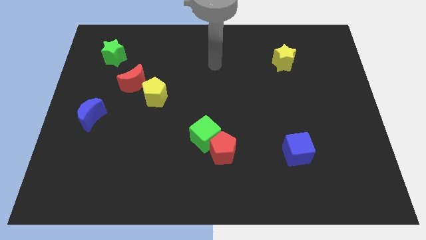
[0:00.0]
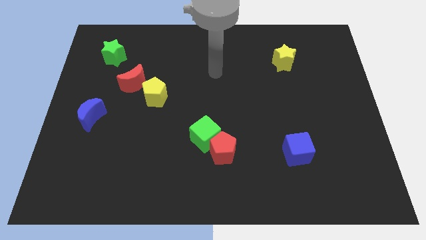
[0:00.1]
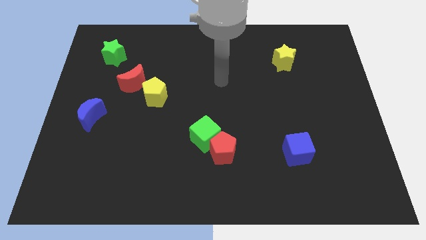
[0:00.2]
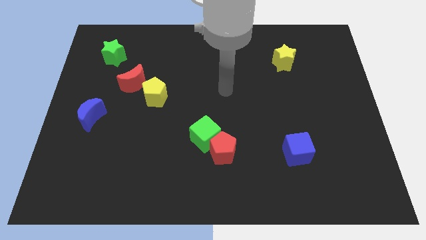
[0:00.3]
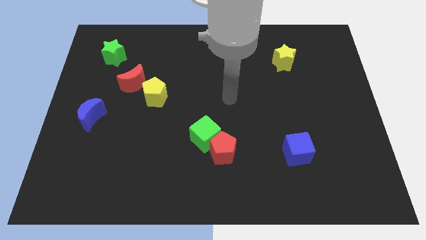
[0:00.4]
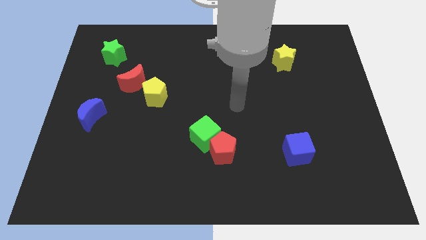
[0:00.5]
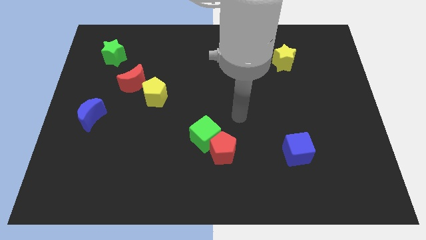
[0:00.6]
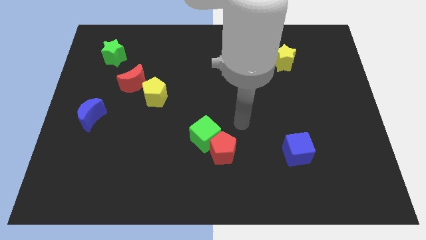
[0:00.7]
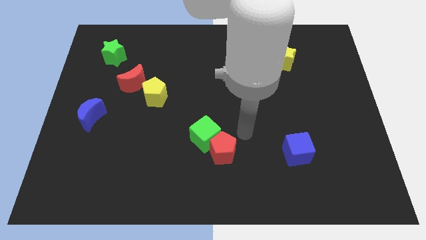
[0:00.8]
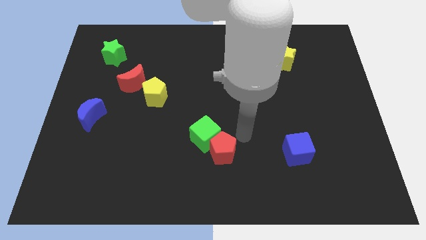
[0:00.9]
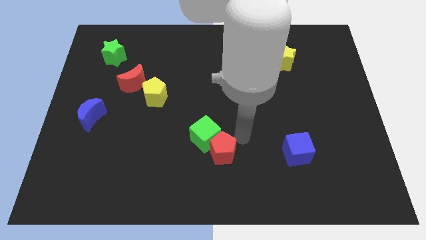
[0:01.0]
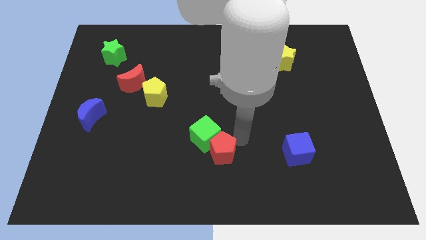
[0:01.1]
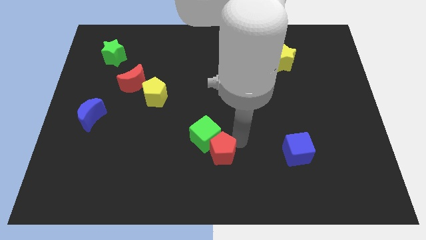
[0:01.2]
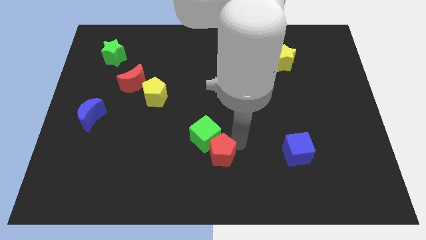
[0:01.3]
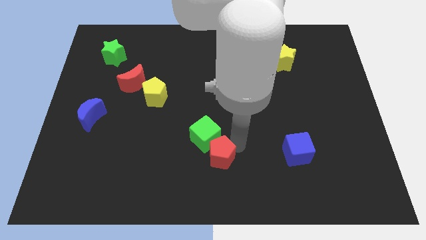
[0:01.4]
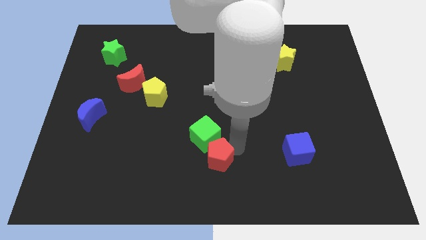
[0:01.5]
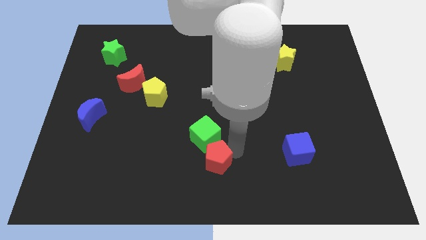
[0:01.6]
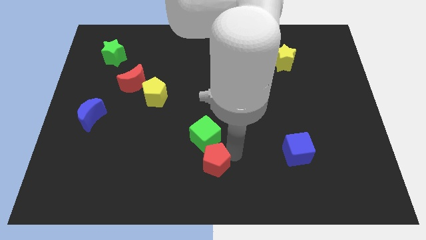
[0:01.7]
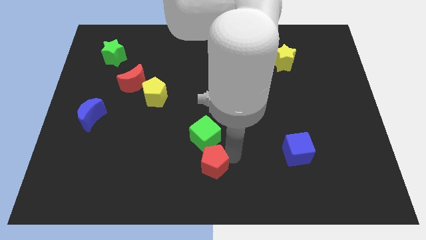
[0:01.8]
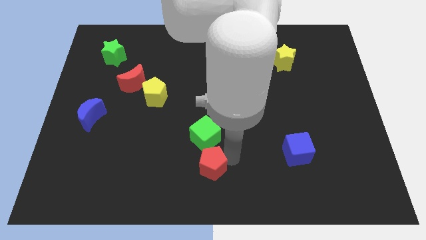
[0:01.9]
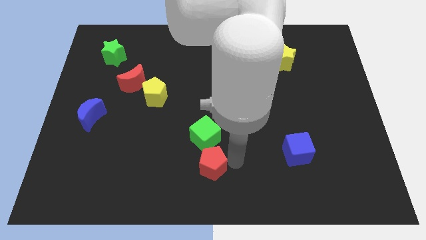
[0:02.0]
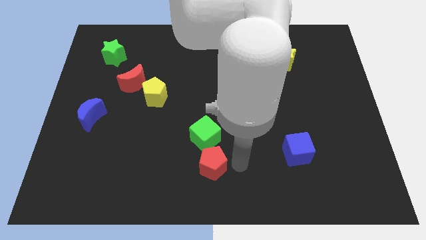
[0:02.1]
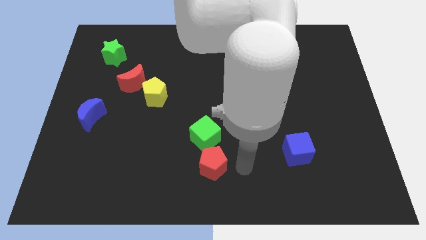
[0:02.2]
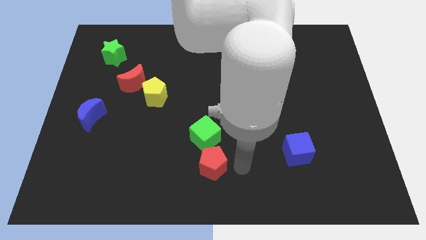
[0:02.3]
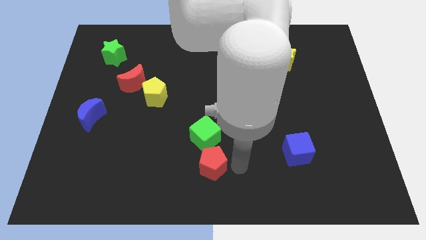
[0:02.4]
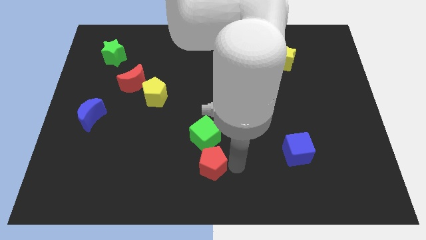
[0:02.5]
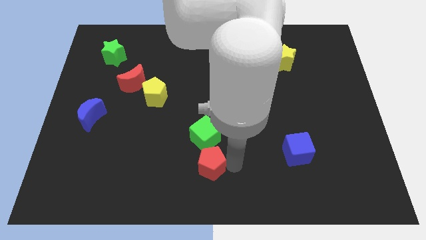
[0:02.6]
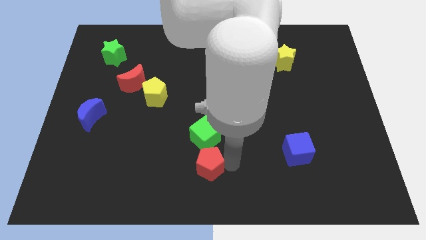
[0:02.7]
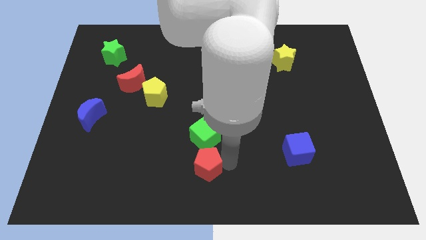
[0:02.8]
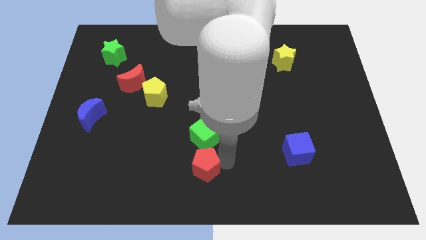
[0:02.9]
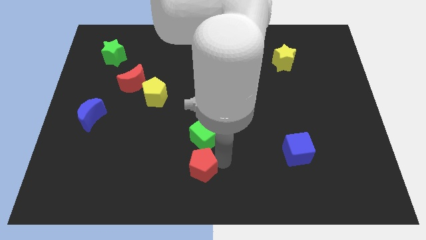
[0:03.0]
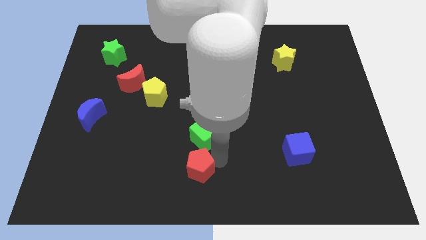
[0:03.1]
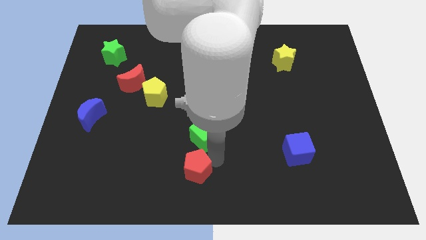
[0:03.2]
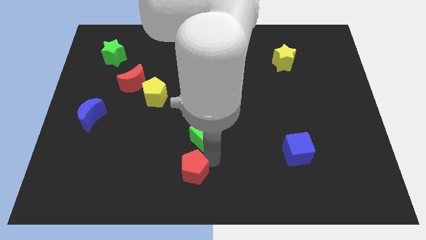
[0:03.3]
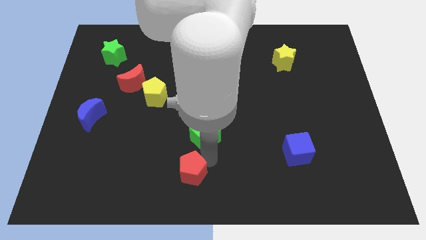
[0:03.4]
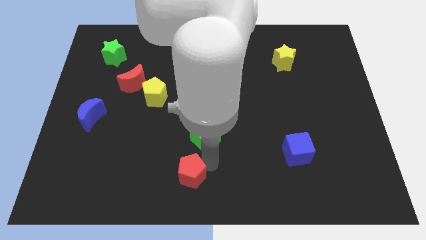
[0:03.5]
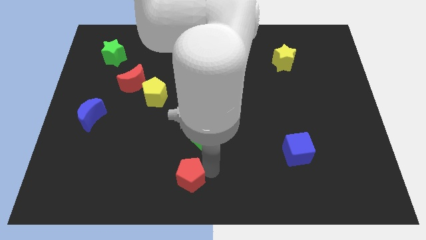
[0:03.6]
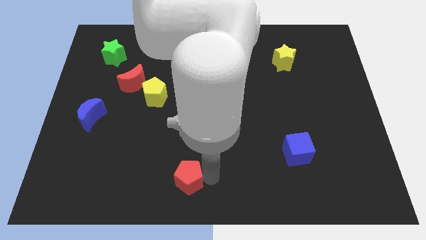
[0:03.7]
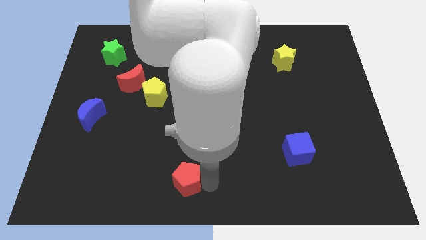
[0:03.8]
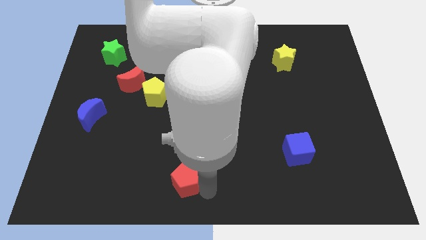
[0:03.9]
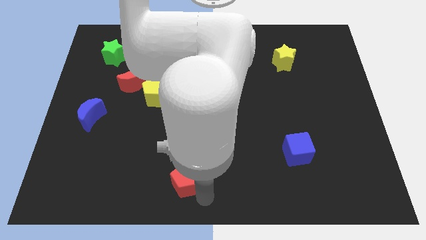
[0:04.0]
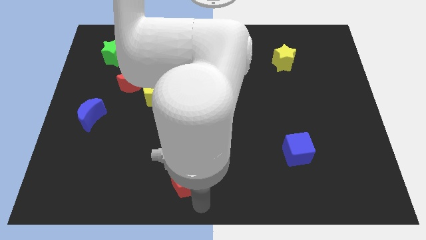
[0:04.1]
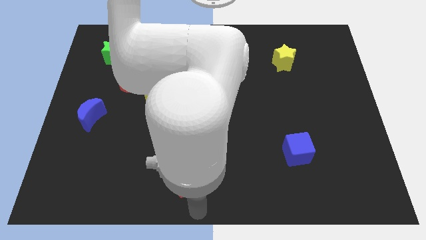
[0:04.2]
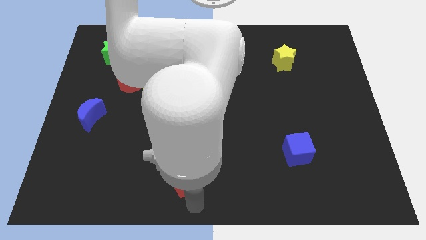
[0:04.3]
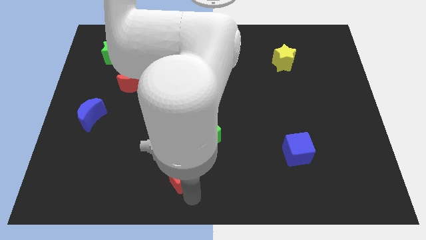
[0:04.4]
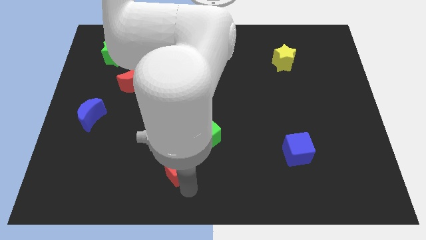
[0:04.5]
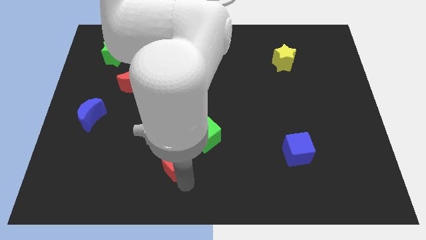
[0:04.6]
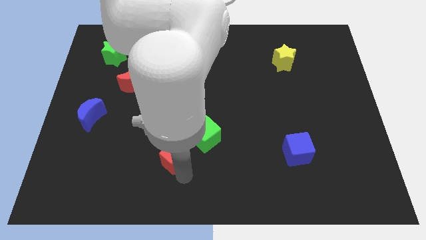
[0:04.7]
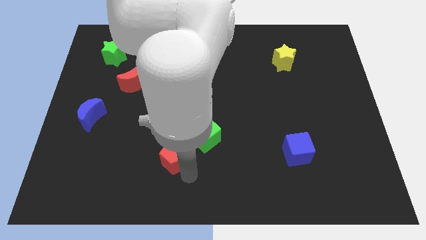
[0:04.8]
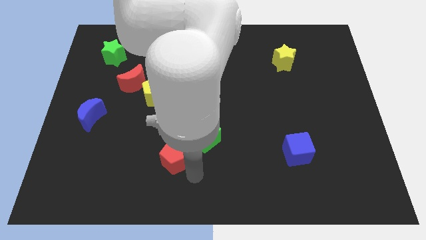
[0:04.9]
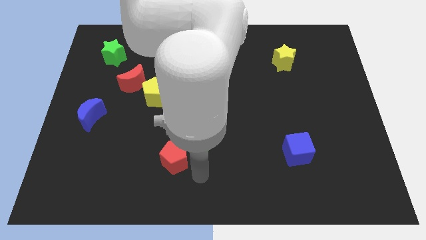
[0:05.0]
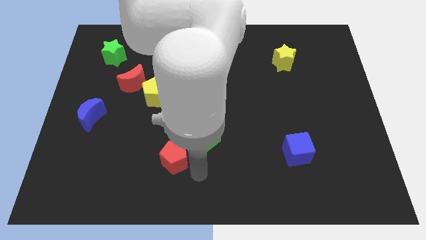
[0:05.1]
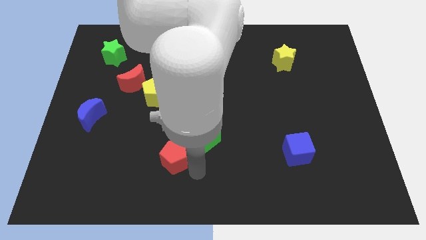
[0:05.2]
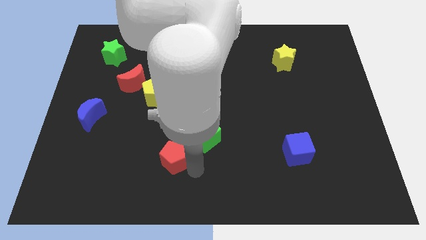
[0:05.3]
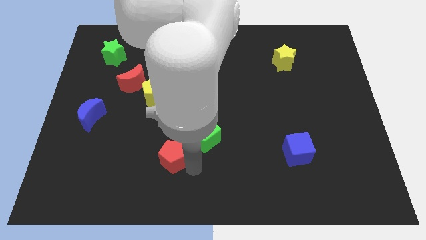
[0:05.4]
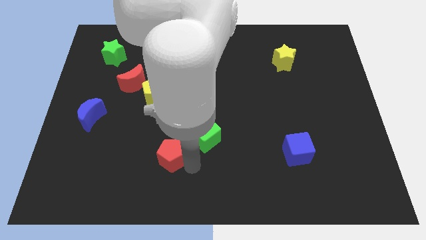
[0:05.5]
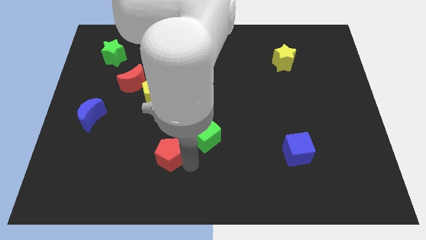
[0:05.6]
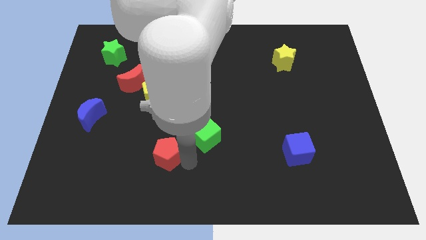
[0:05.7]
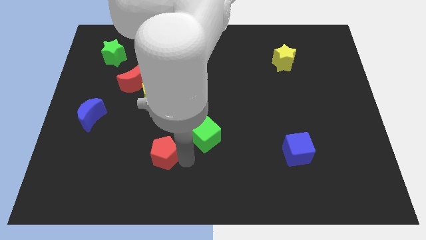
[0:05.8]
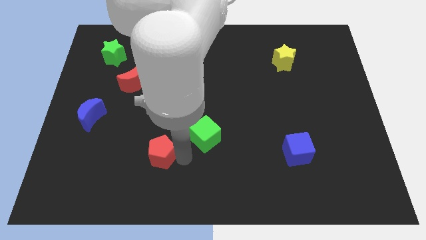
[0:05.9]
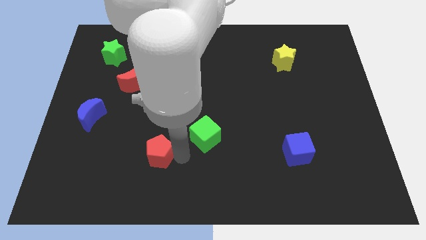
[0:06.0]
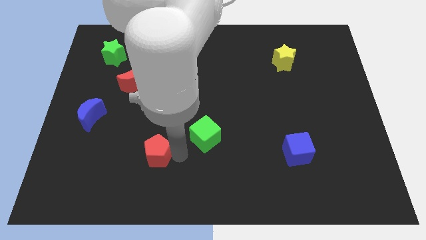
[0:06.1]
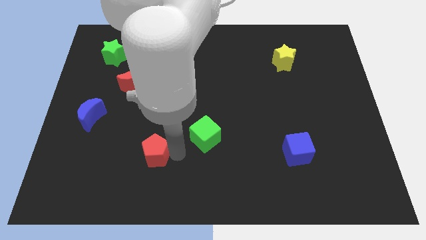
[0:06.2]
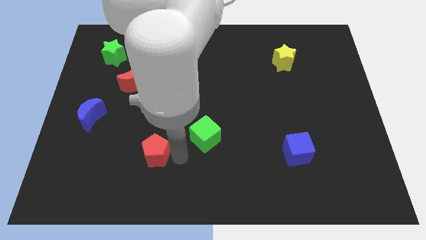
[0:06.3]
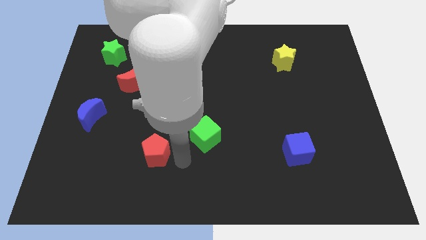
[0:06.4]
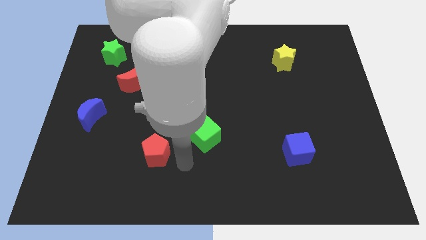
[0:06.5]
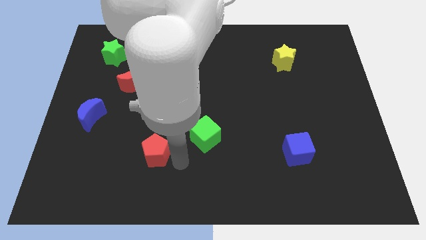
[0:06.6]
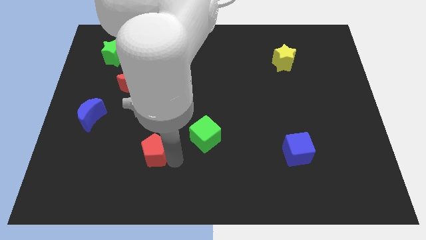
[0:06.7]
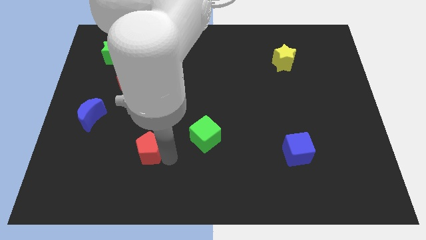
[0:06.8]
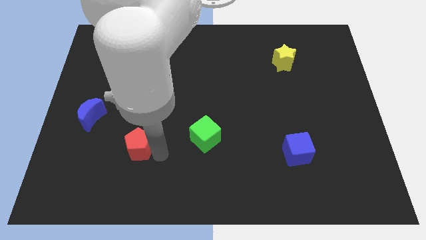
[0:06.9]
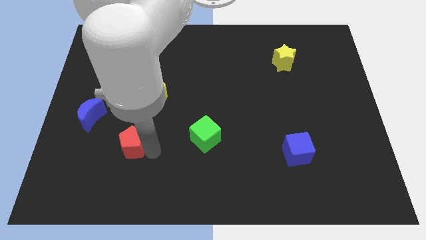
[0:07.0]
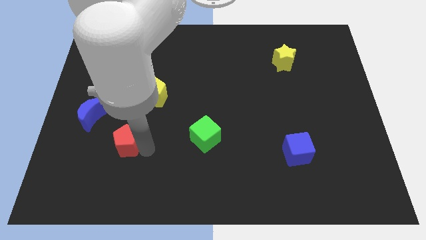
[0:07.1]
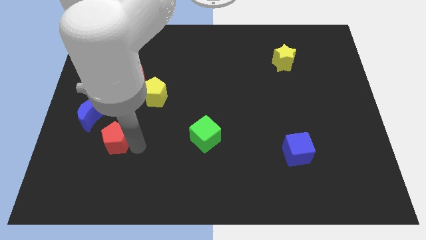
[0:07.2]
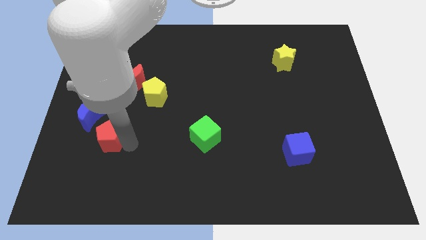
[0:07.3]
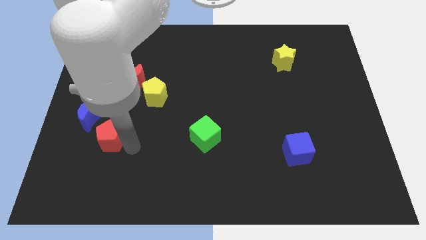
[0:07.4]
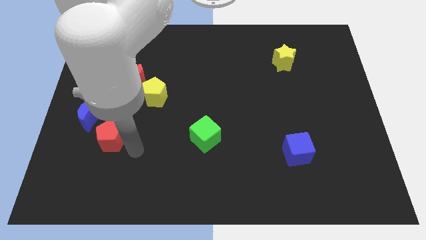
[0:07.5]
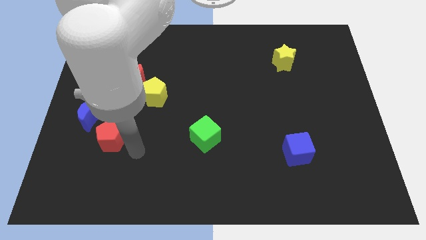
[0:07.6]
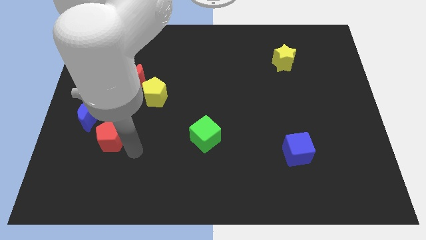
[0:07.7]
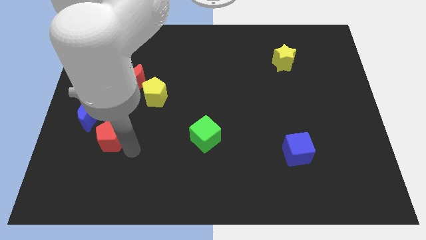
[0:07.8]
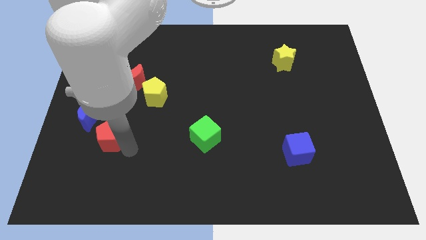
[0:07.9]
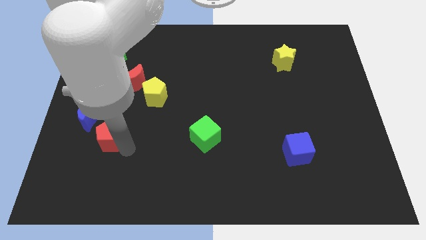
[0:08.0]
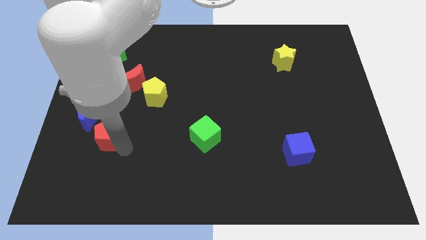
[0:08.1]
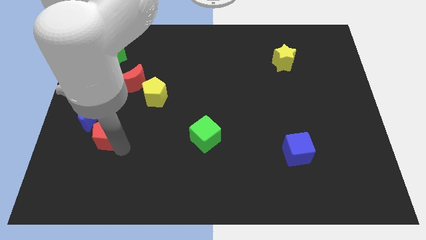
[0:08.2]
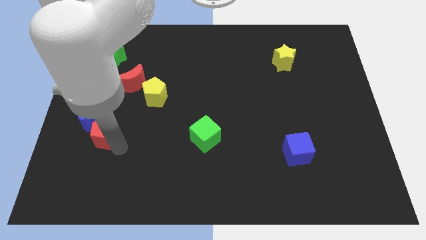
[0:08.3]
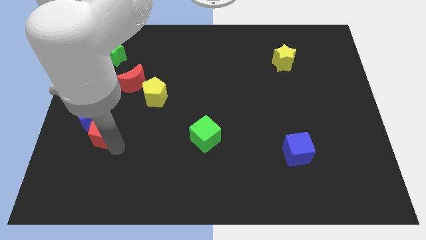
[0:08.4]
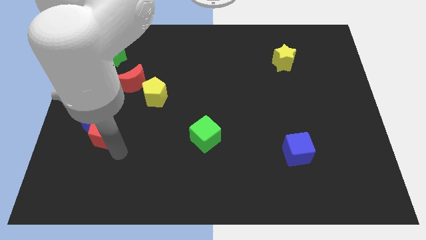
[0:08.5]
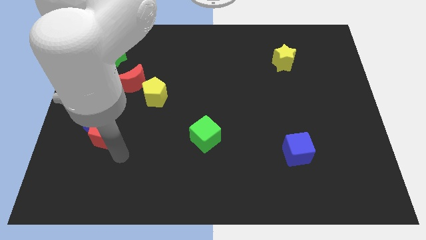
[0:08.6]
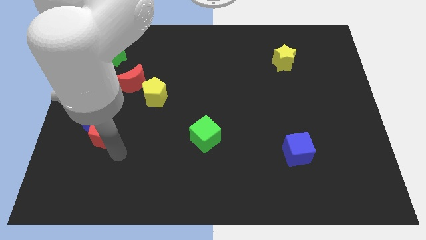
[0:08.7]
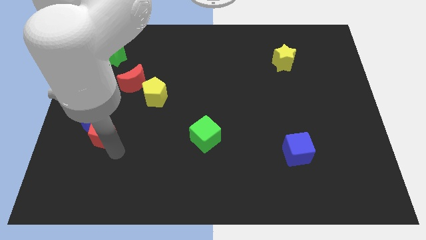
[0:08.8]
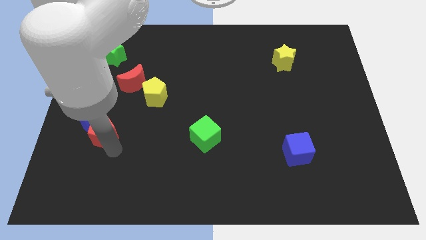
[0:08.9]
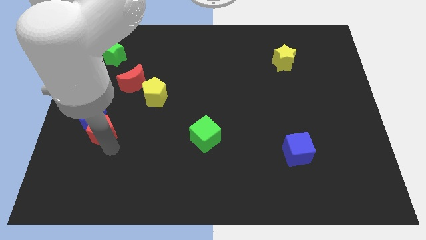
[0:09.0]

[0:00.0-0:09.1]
put the red pentagon towards the blue moon
